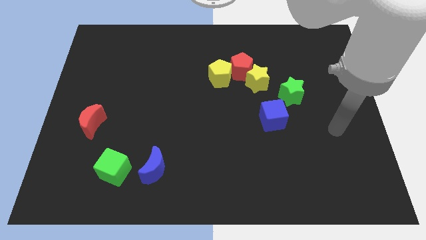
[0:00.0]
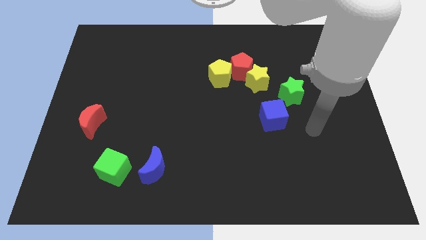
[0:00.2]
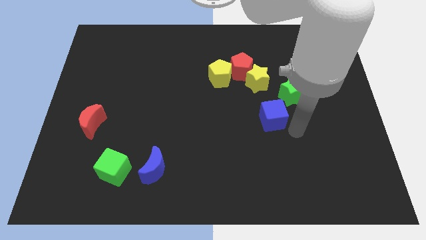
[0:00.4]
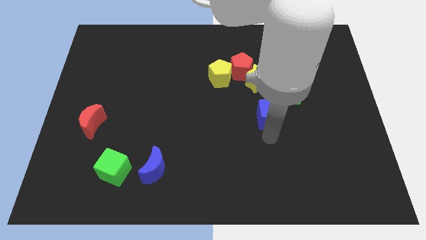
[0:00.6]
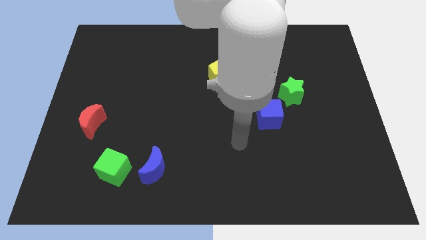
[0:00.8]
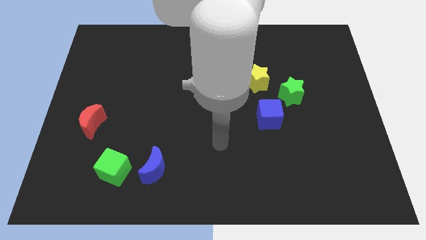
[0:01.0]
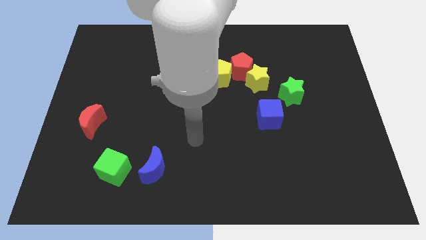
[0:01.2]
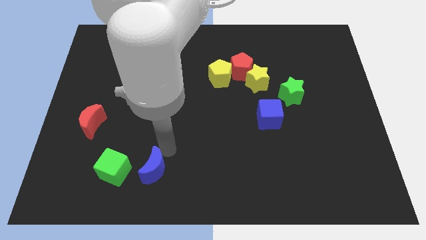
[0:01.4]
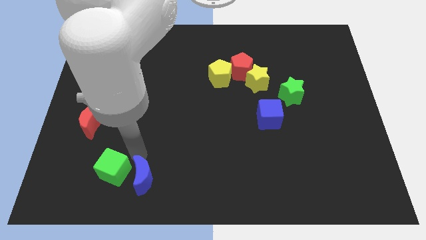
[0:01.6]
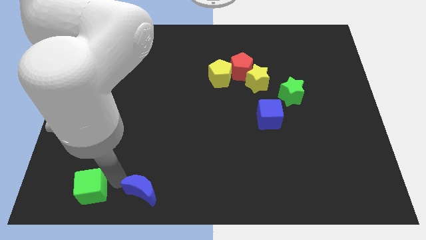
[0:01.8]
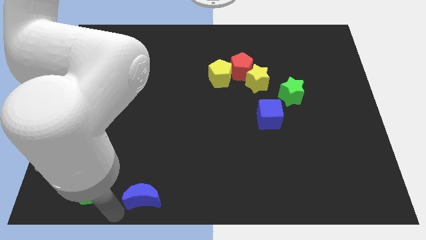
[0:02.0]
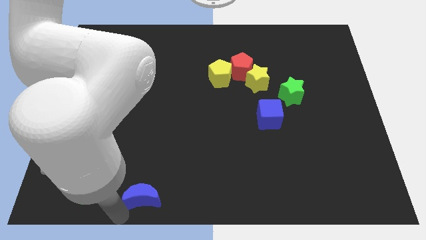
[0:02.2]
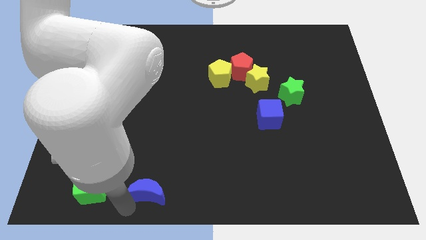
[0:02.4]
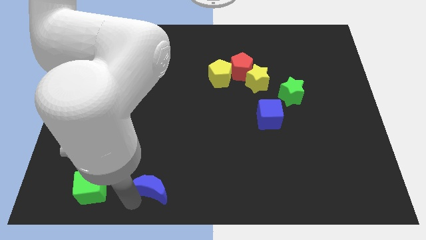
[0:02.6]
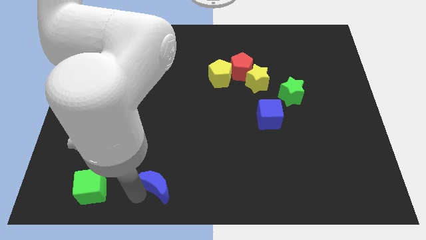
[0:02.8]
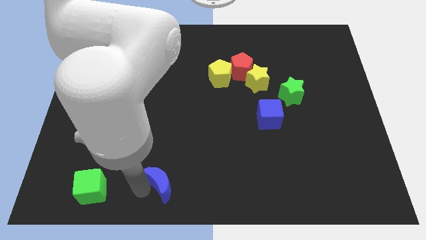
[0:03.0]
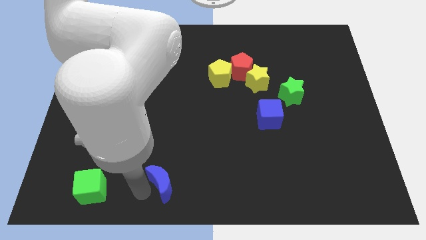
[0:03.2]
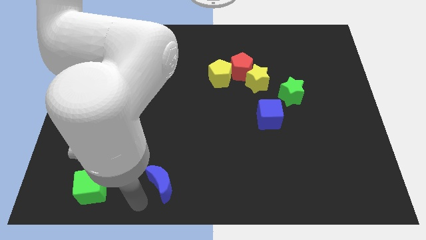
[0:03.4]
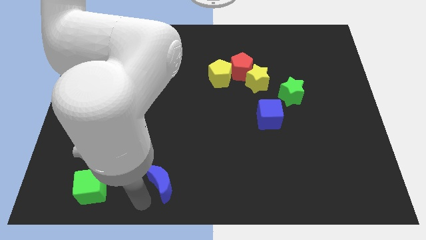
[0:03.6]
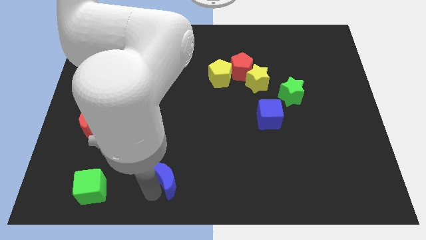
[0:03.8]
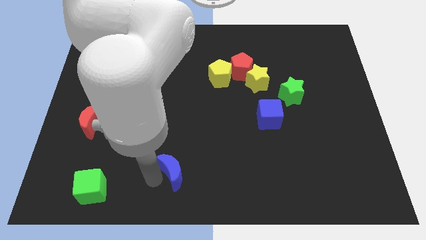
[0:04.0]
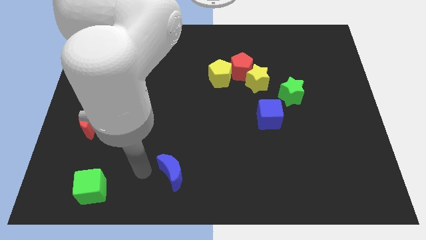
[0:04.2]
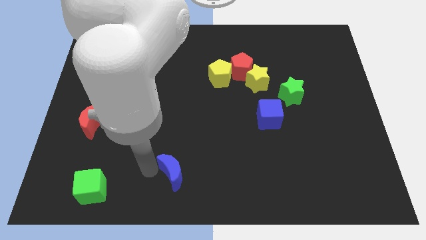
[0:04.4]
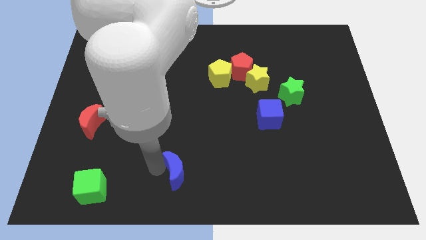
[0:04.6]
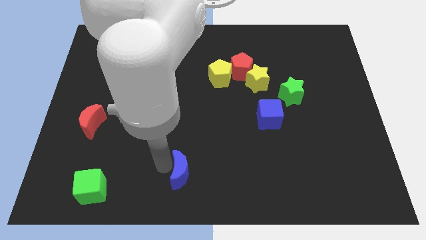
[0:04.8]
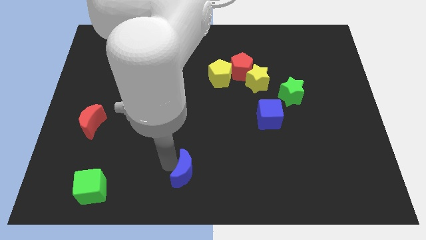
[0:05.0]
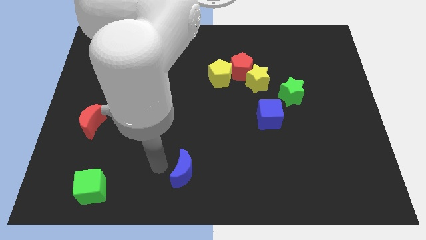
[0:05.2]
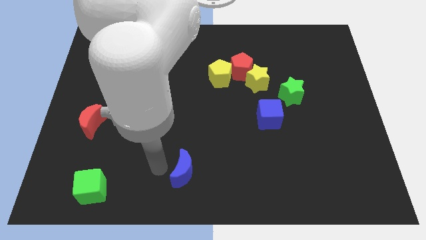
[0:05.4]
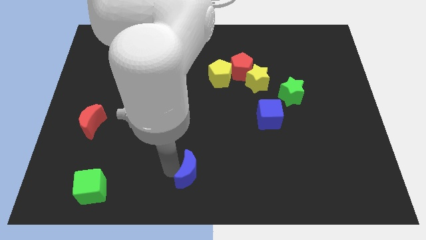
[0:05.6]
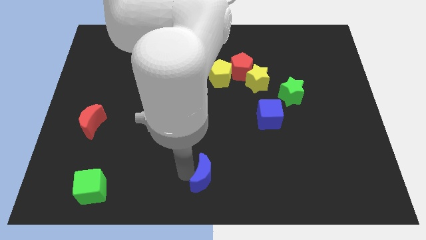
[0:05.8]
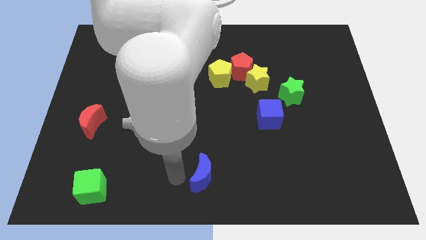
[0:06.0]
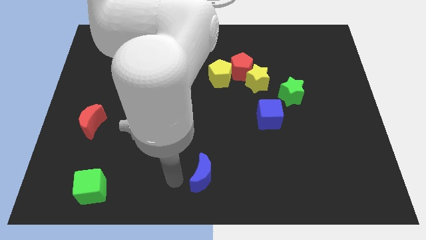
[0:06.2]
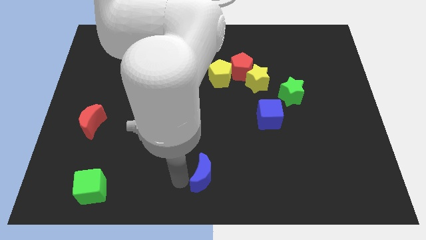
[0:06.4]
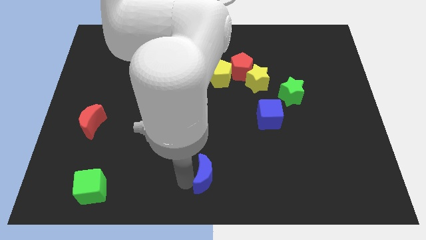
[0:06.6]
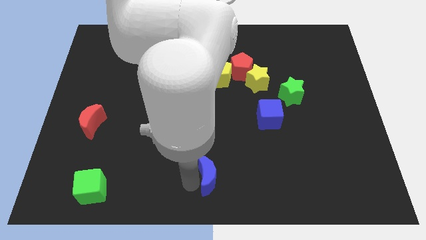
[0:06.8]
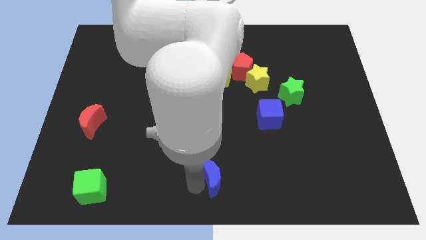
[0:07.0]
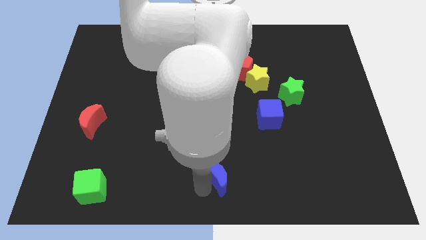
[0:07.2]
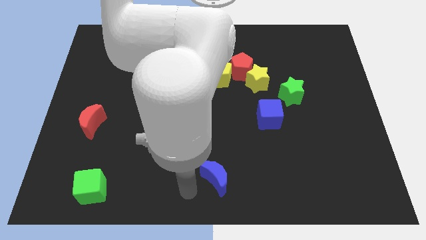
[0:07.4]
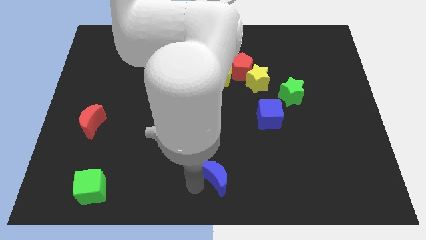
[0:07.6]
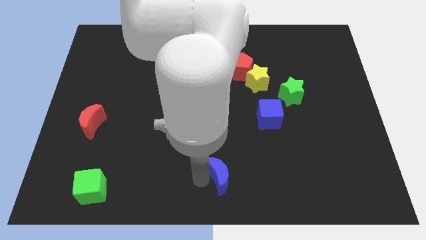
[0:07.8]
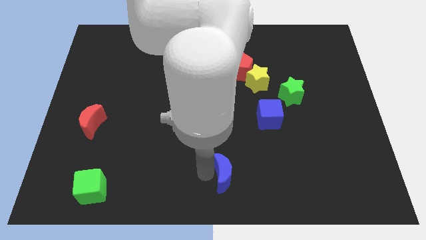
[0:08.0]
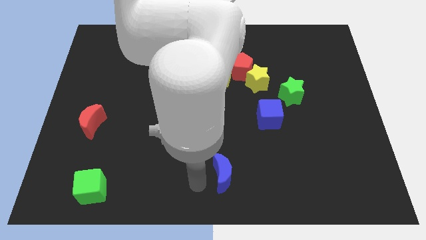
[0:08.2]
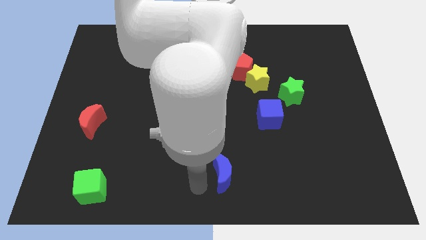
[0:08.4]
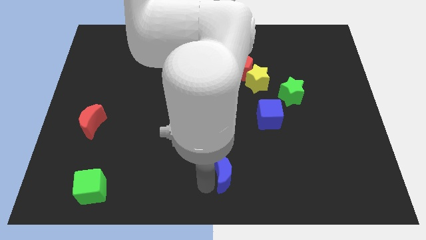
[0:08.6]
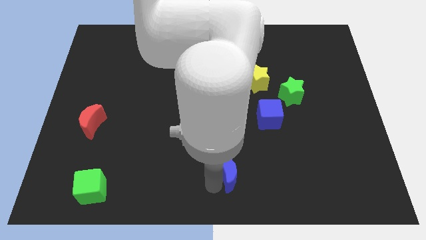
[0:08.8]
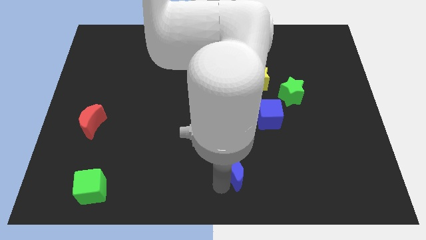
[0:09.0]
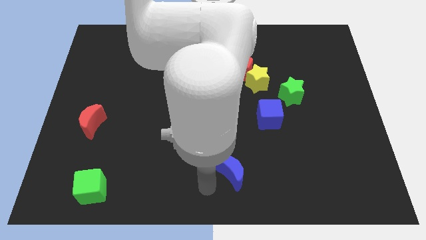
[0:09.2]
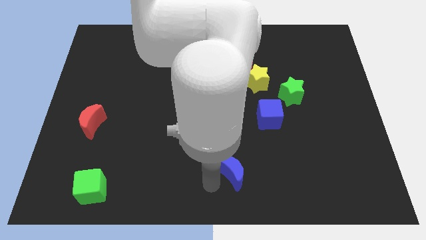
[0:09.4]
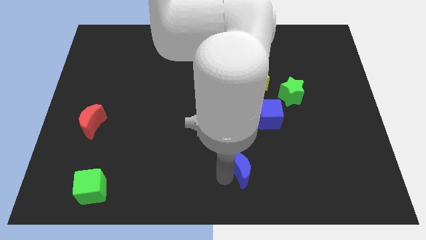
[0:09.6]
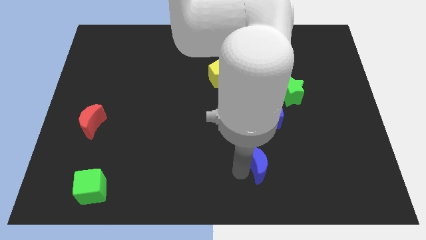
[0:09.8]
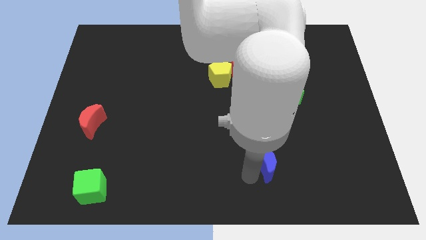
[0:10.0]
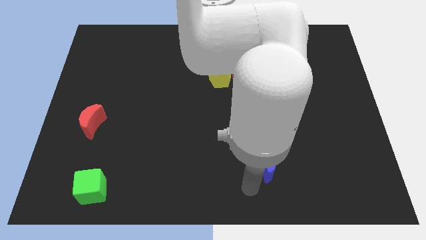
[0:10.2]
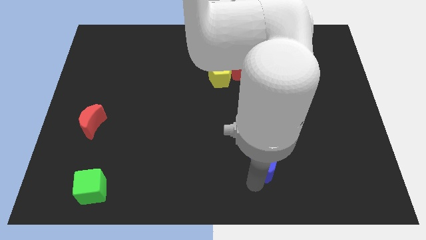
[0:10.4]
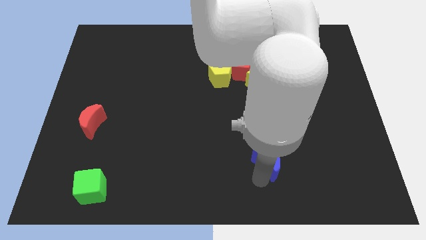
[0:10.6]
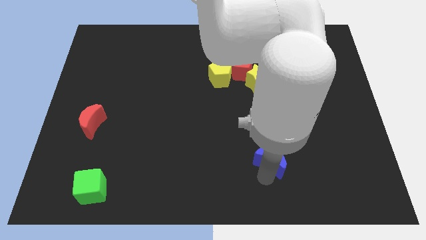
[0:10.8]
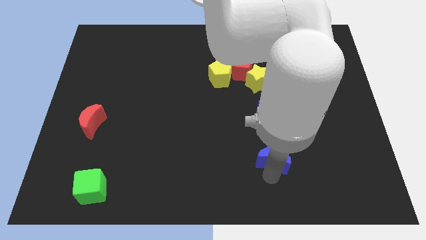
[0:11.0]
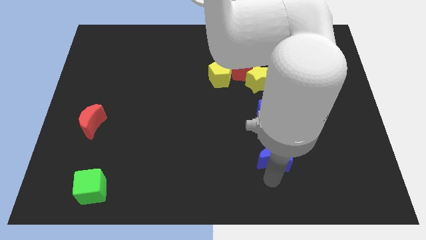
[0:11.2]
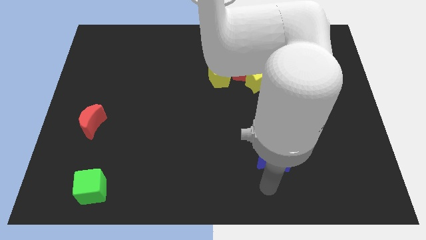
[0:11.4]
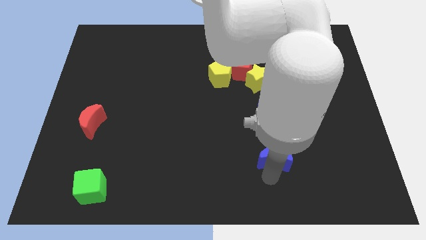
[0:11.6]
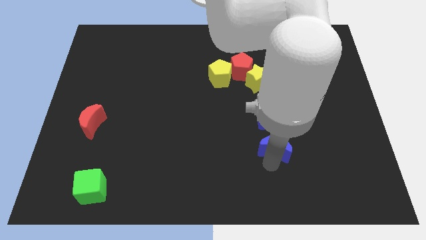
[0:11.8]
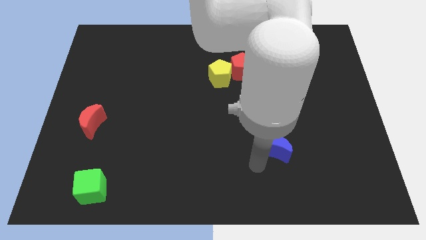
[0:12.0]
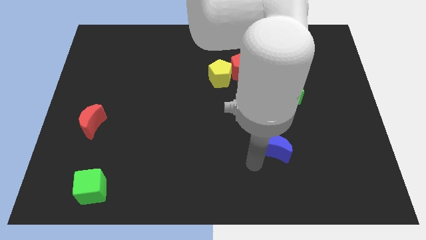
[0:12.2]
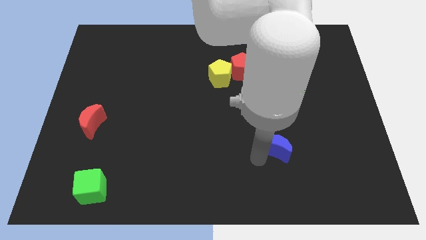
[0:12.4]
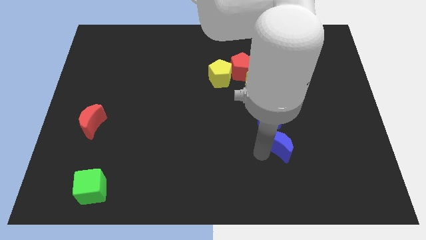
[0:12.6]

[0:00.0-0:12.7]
put the blue moon to the bottom right side of the blue cube

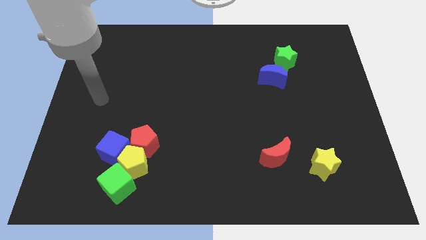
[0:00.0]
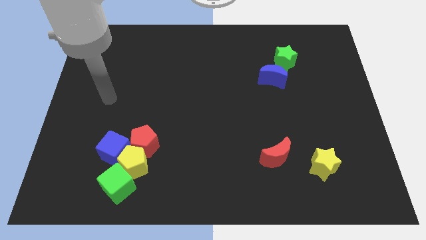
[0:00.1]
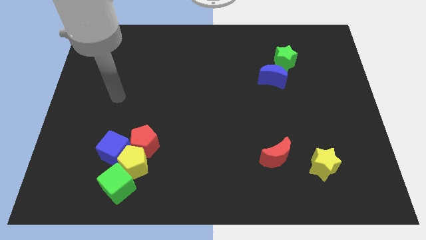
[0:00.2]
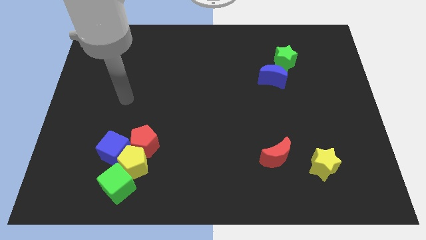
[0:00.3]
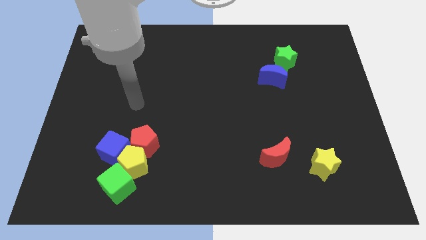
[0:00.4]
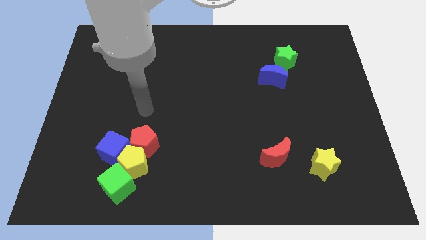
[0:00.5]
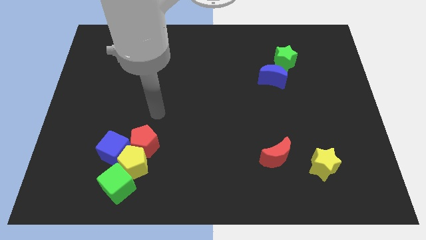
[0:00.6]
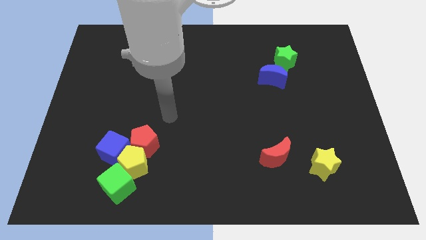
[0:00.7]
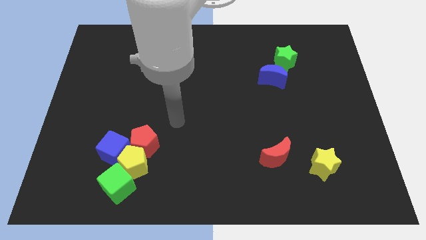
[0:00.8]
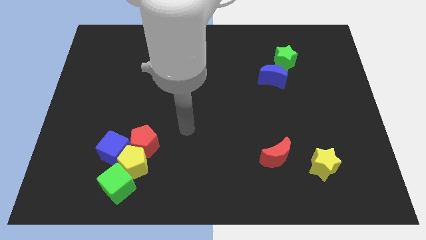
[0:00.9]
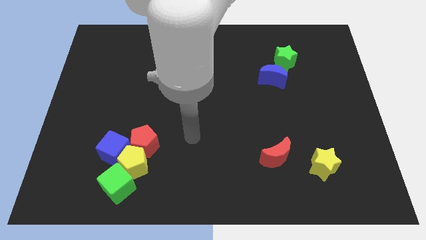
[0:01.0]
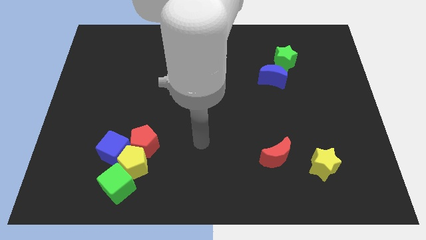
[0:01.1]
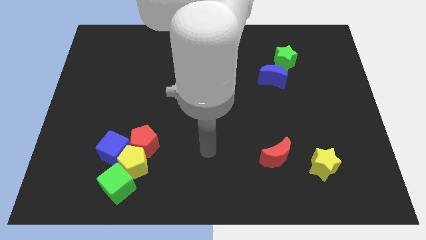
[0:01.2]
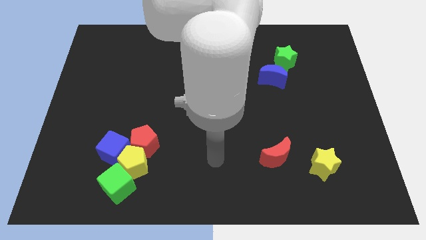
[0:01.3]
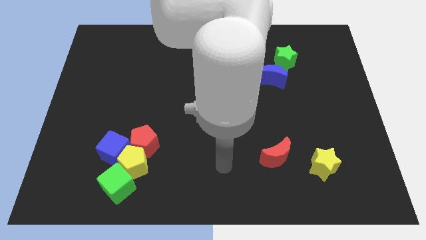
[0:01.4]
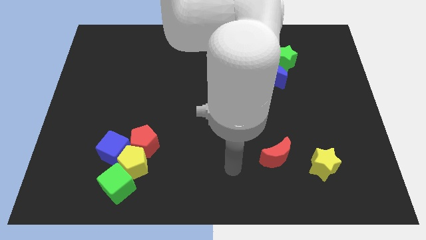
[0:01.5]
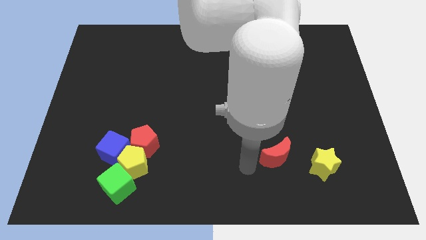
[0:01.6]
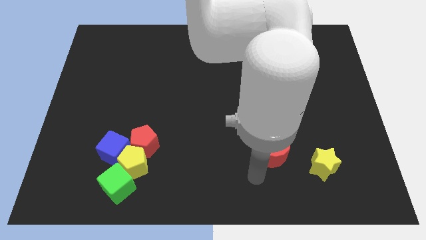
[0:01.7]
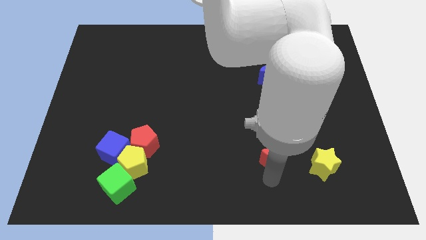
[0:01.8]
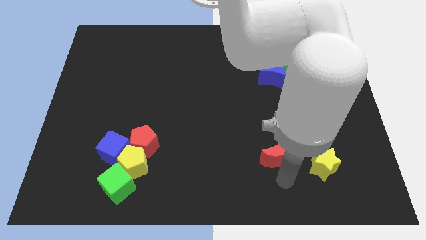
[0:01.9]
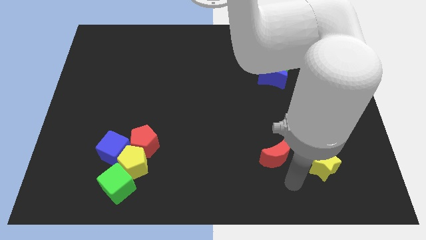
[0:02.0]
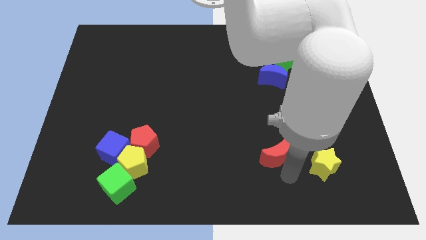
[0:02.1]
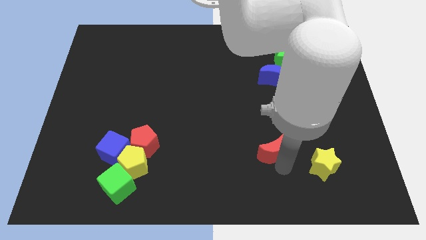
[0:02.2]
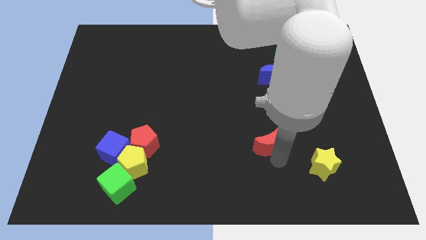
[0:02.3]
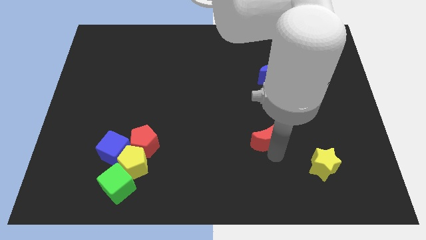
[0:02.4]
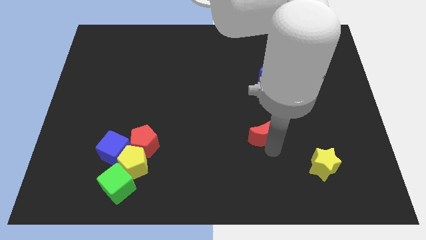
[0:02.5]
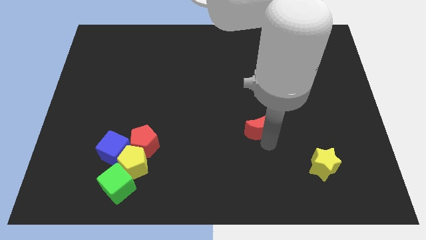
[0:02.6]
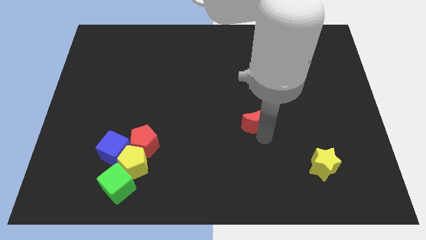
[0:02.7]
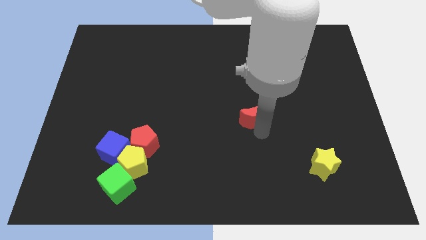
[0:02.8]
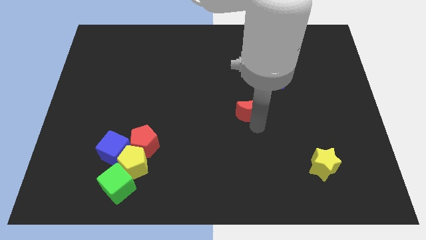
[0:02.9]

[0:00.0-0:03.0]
put the red moon diagonally down and to the left of the blue moon
